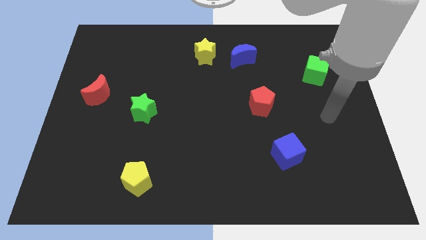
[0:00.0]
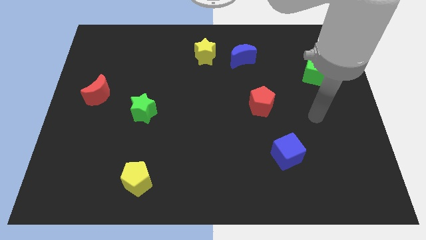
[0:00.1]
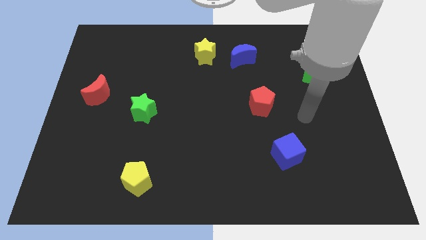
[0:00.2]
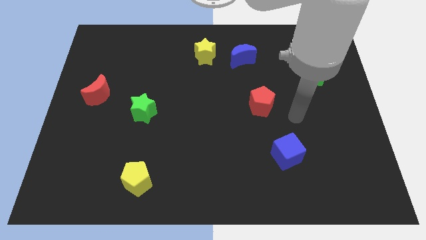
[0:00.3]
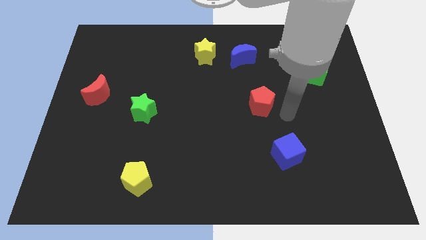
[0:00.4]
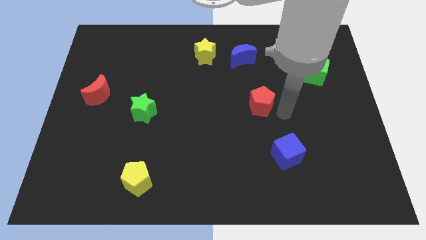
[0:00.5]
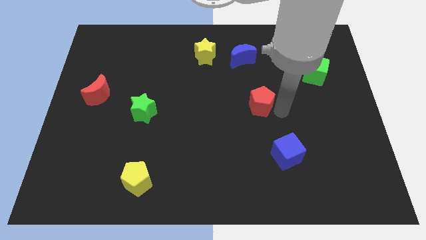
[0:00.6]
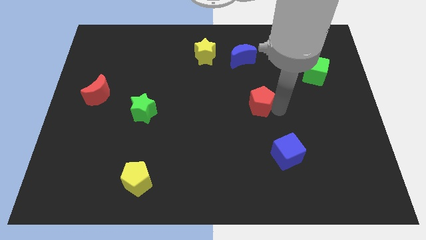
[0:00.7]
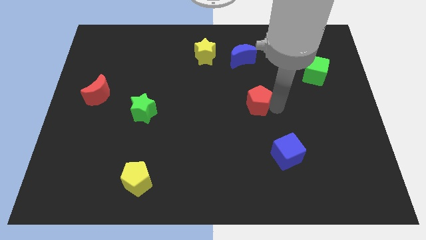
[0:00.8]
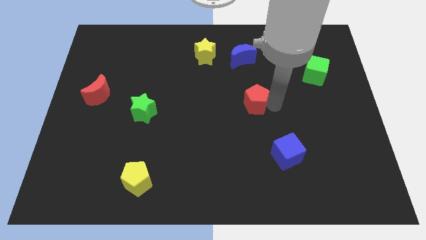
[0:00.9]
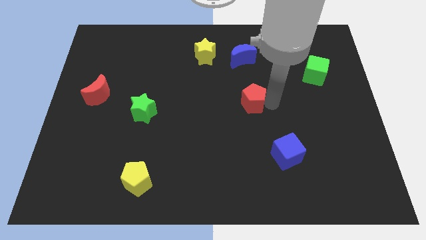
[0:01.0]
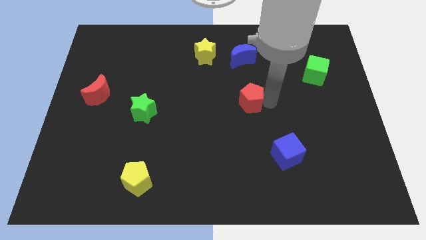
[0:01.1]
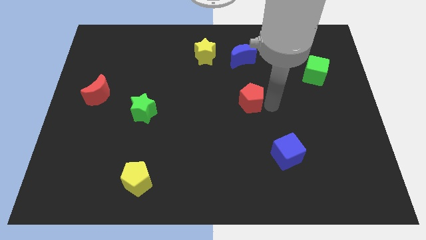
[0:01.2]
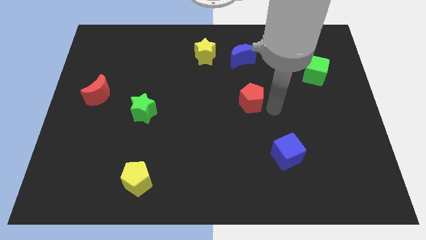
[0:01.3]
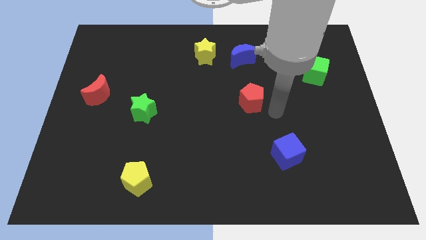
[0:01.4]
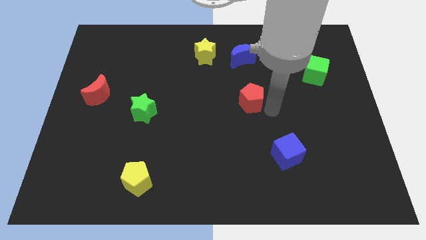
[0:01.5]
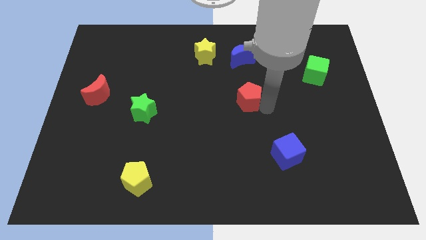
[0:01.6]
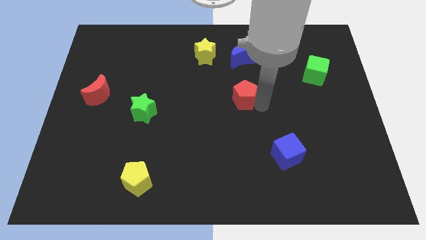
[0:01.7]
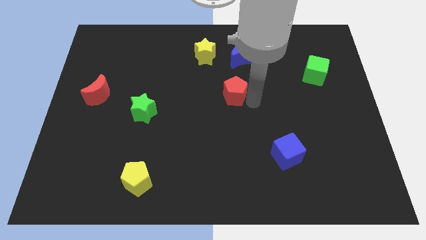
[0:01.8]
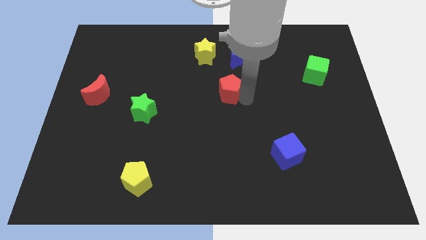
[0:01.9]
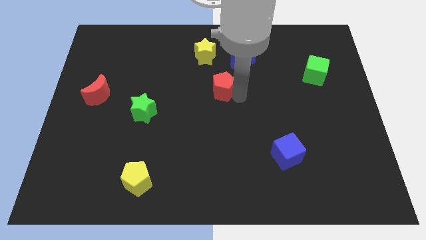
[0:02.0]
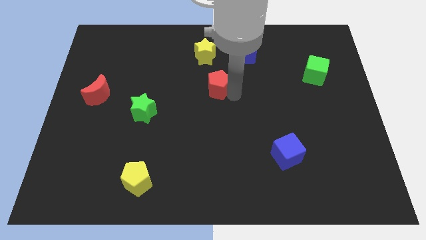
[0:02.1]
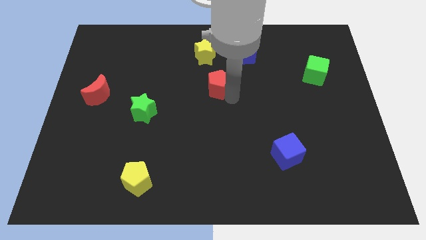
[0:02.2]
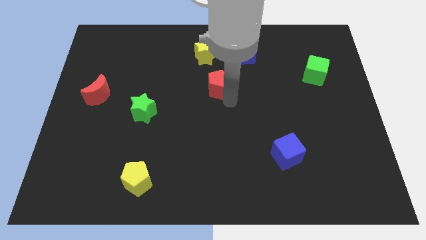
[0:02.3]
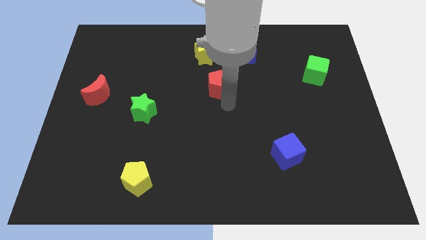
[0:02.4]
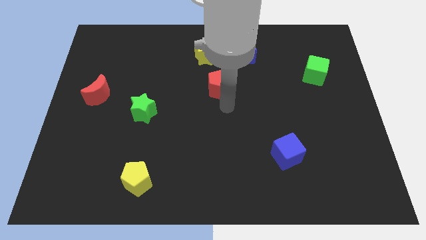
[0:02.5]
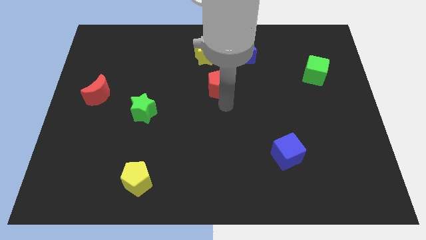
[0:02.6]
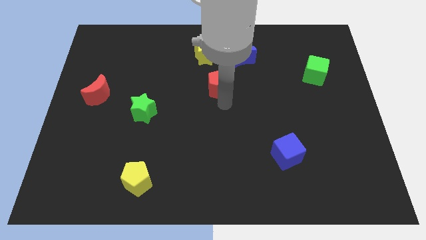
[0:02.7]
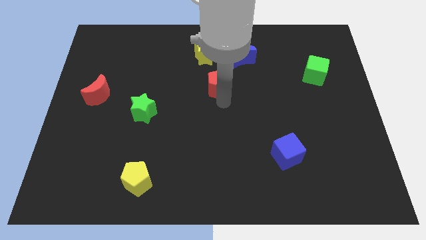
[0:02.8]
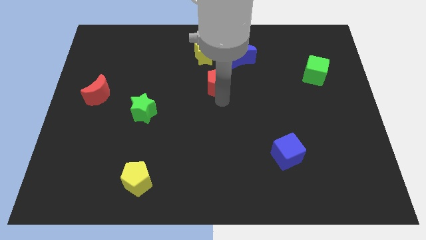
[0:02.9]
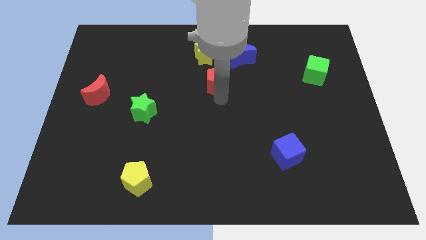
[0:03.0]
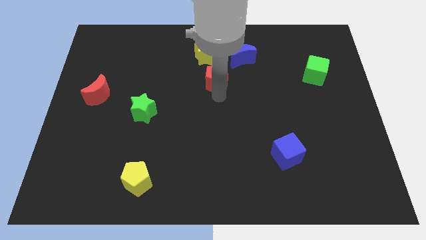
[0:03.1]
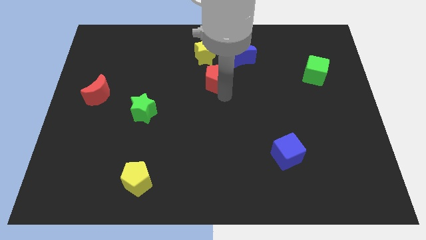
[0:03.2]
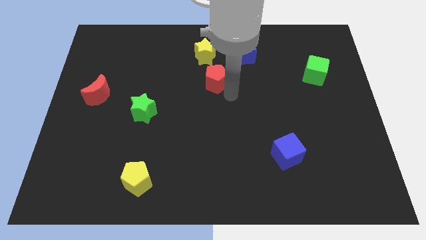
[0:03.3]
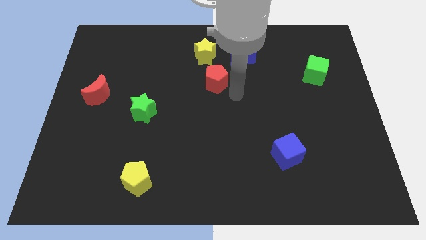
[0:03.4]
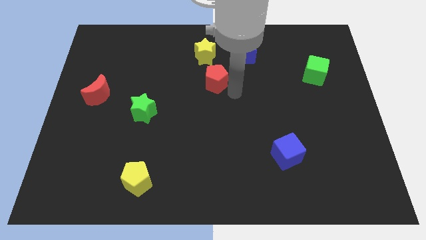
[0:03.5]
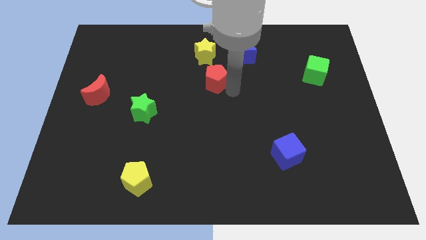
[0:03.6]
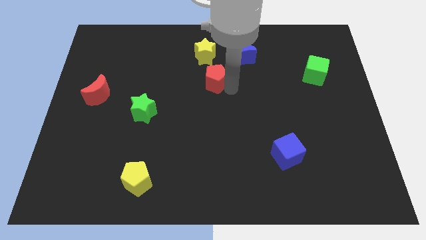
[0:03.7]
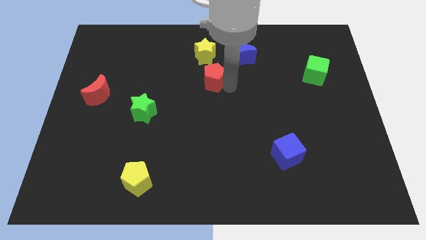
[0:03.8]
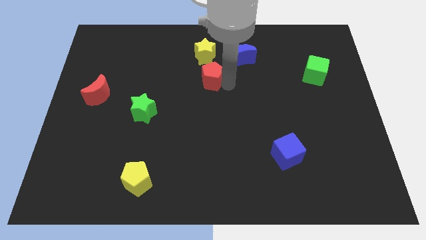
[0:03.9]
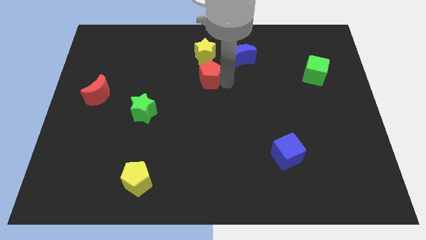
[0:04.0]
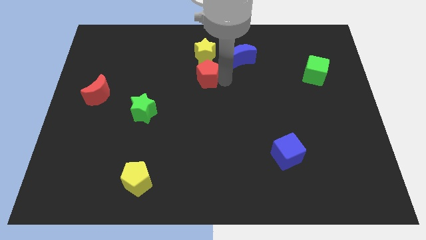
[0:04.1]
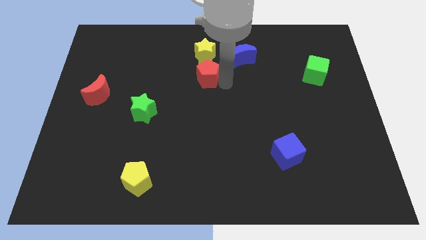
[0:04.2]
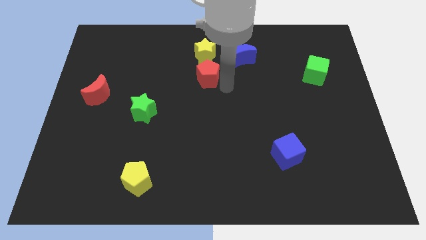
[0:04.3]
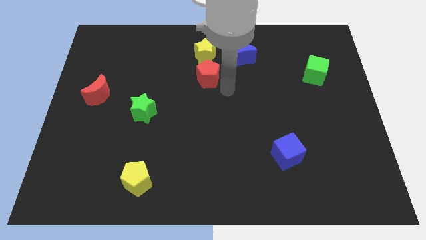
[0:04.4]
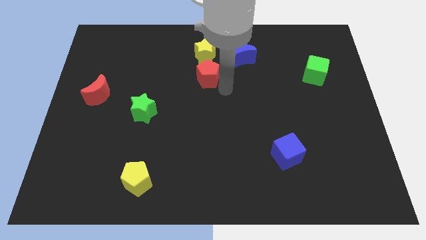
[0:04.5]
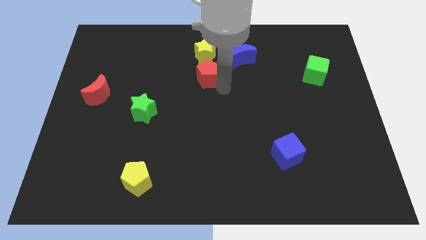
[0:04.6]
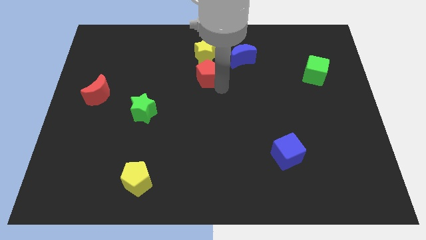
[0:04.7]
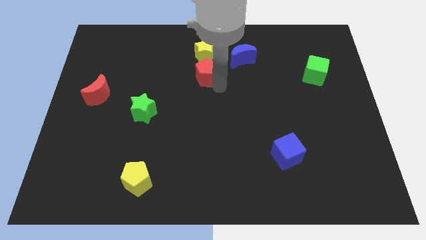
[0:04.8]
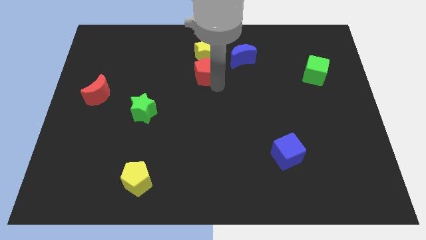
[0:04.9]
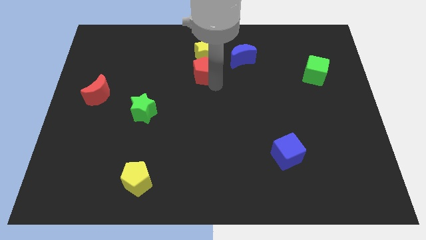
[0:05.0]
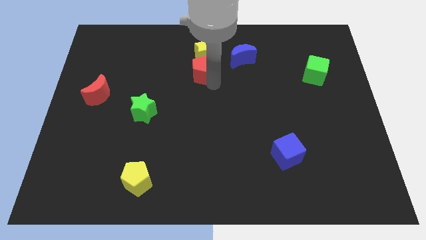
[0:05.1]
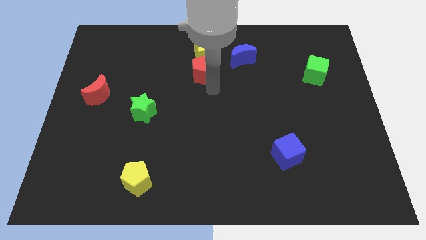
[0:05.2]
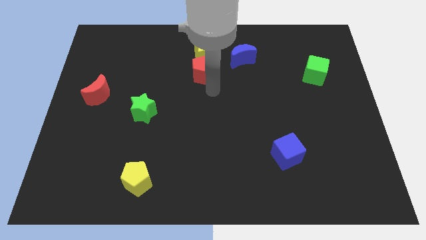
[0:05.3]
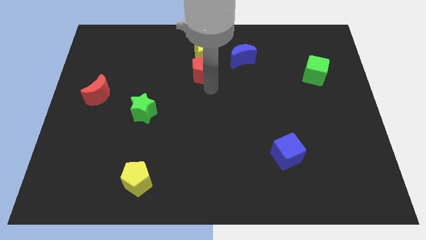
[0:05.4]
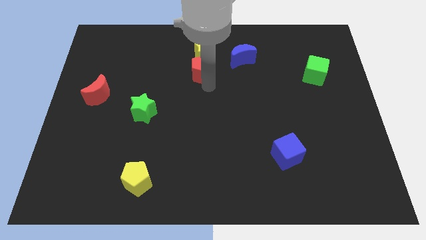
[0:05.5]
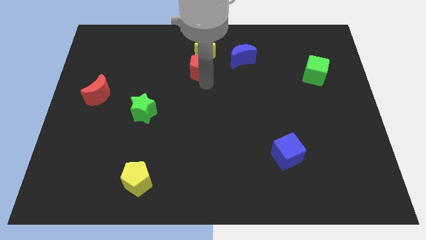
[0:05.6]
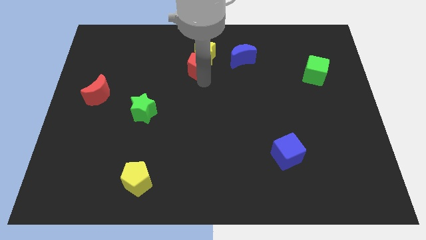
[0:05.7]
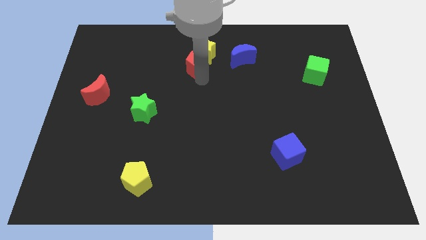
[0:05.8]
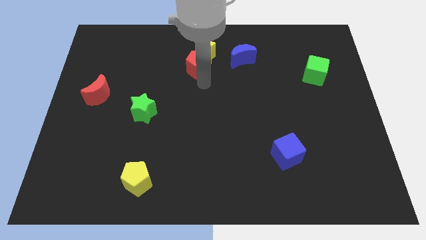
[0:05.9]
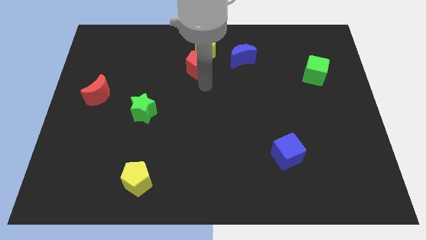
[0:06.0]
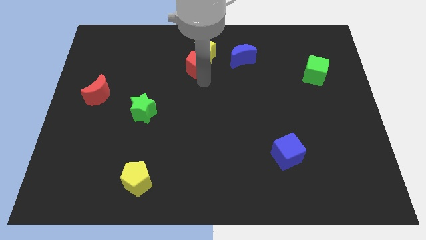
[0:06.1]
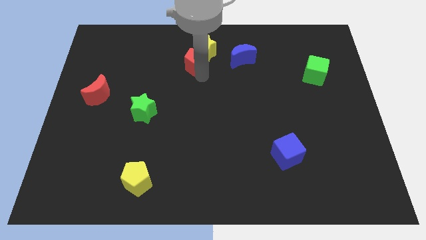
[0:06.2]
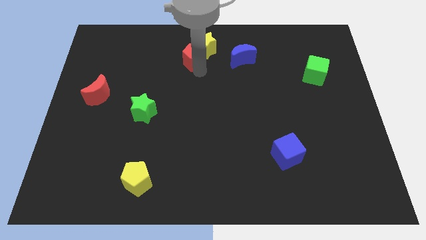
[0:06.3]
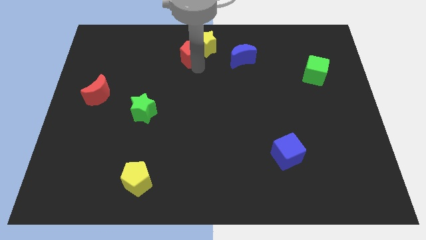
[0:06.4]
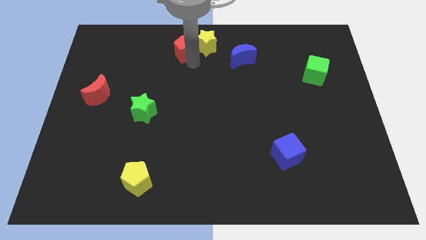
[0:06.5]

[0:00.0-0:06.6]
put the red pentagon to the towards your base
